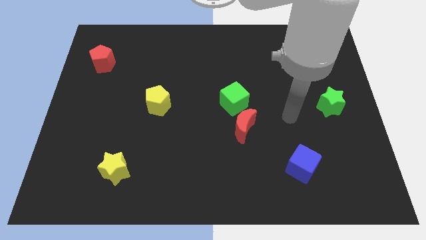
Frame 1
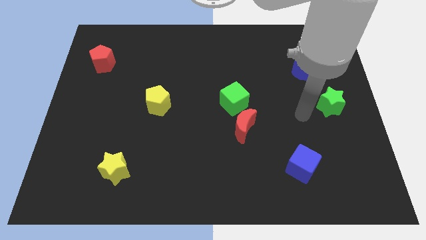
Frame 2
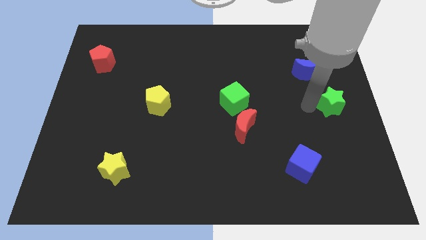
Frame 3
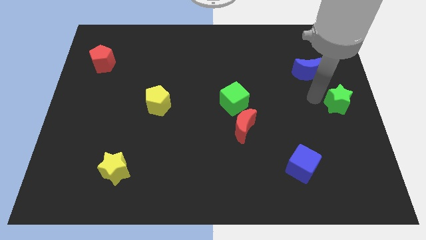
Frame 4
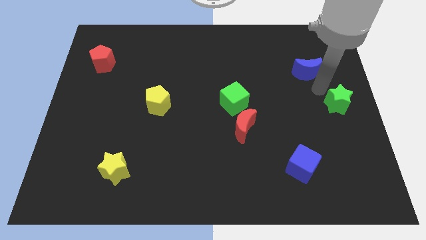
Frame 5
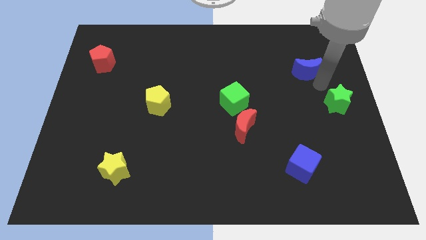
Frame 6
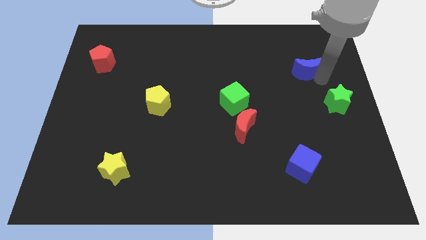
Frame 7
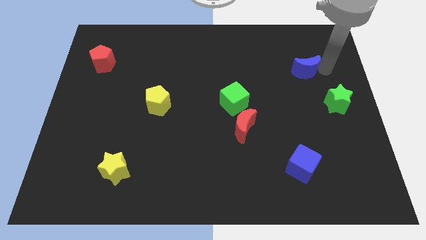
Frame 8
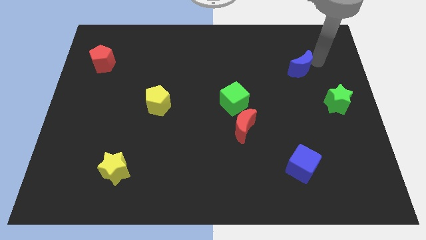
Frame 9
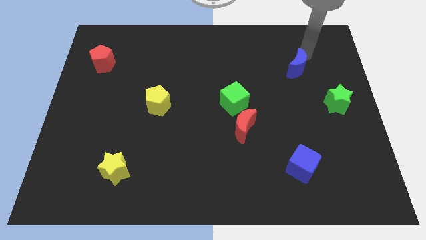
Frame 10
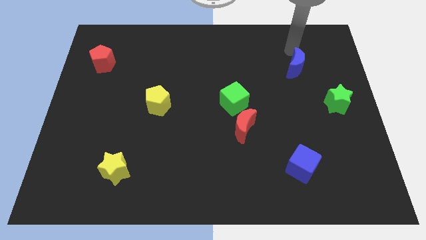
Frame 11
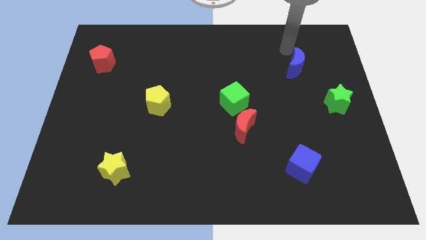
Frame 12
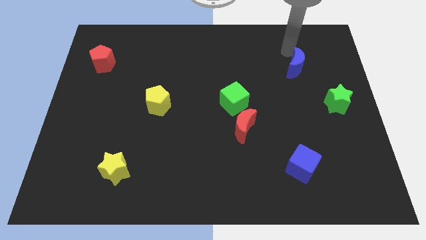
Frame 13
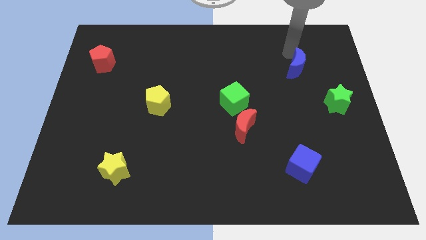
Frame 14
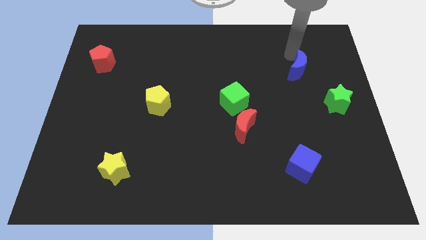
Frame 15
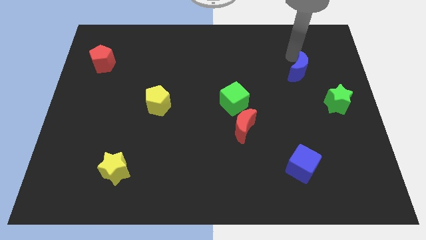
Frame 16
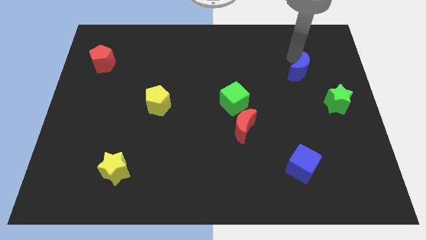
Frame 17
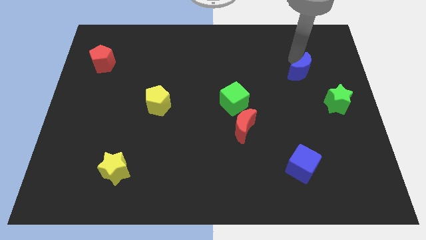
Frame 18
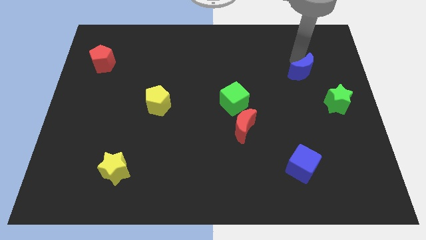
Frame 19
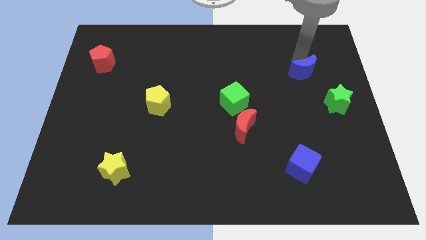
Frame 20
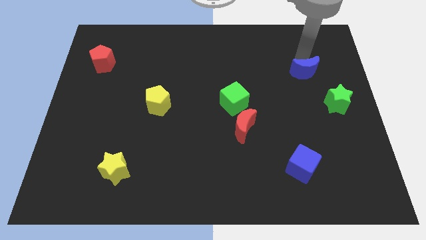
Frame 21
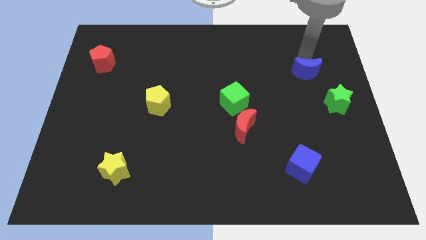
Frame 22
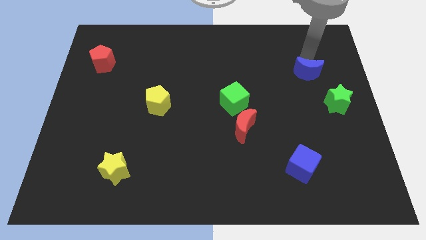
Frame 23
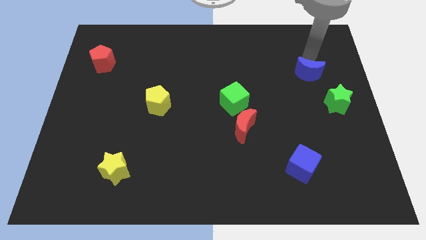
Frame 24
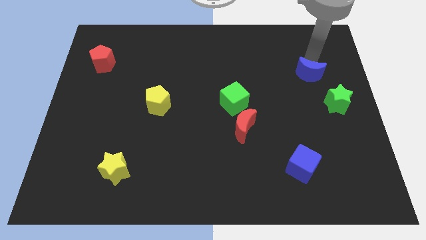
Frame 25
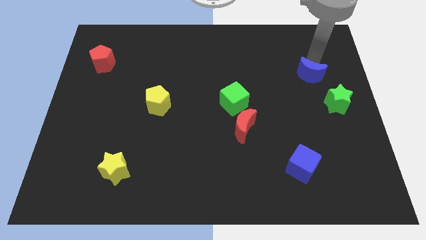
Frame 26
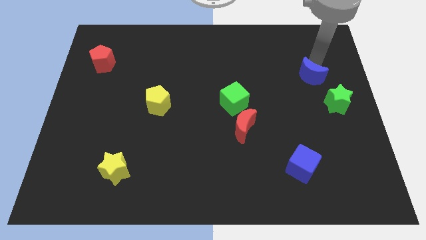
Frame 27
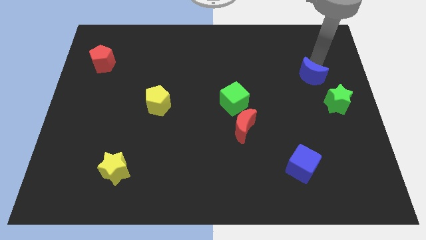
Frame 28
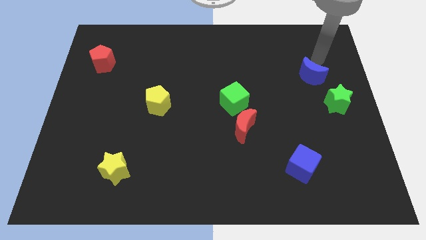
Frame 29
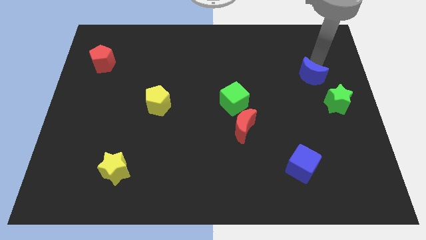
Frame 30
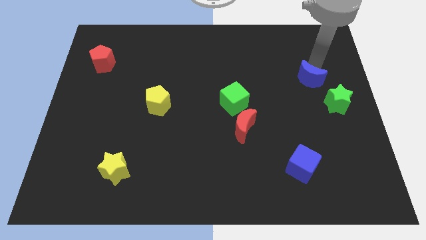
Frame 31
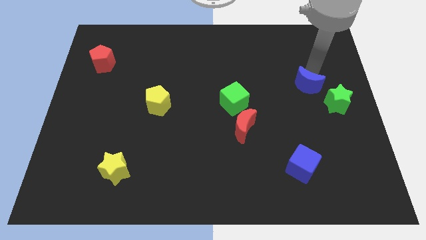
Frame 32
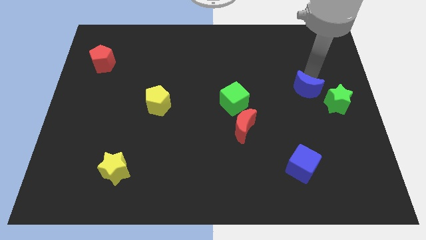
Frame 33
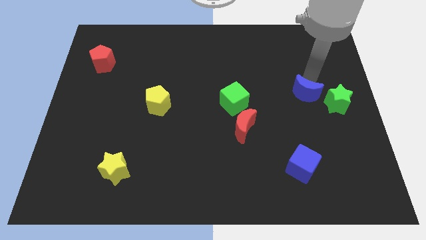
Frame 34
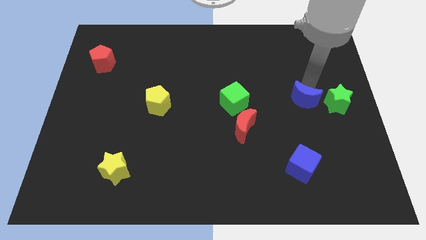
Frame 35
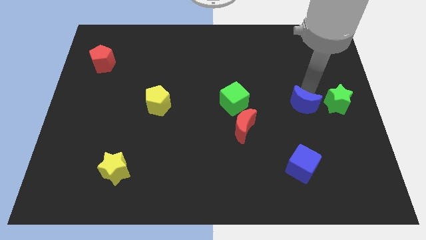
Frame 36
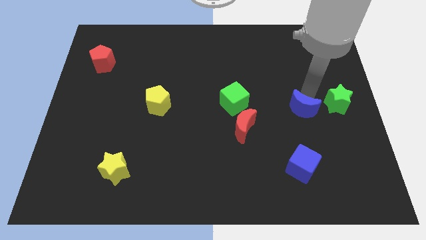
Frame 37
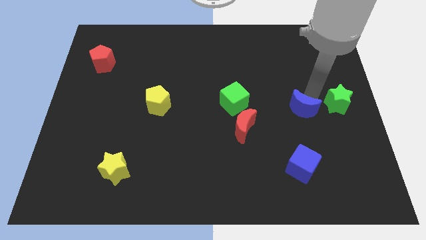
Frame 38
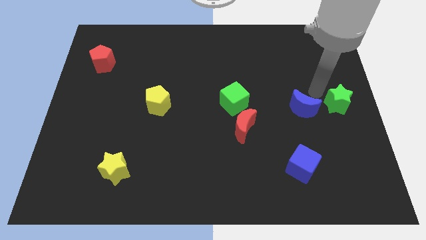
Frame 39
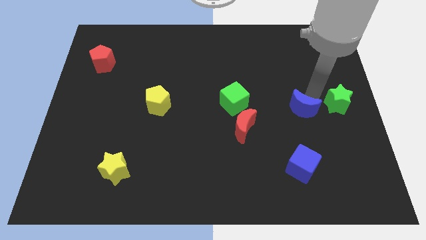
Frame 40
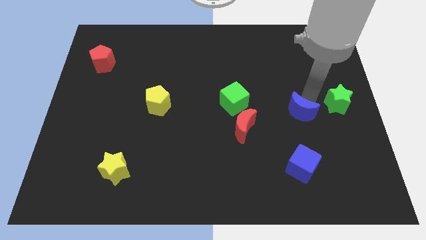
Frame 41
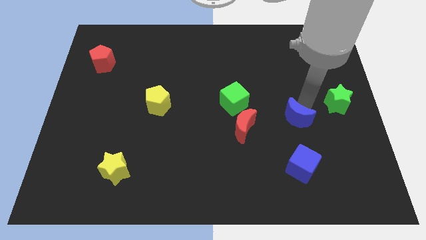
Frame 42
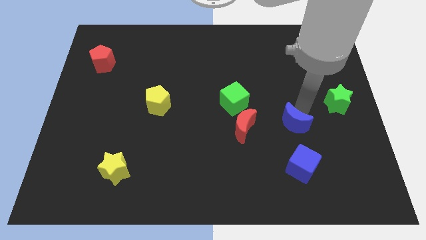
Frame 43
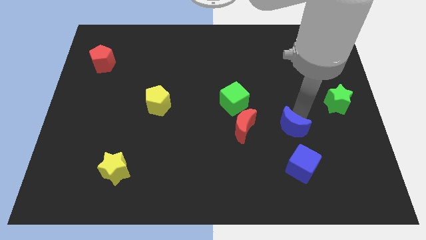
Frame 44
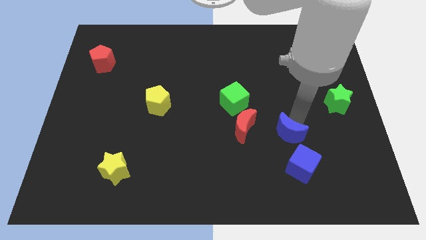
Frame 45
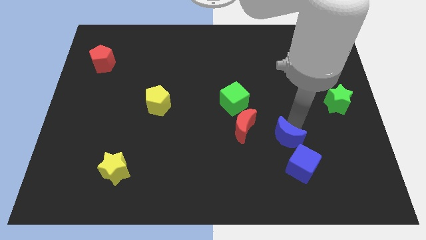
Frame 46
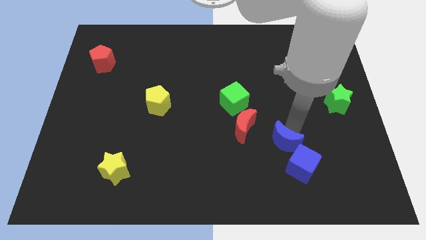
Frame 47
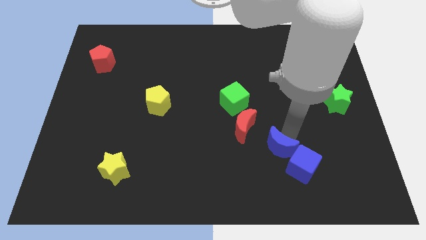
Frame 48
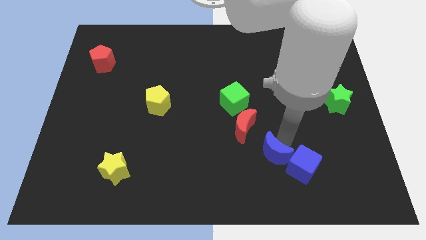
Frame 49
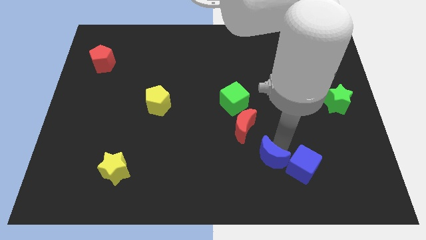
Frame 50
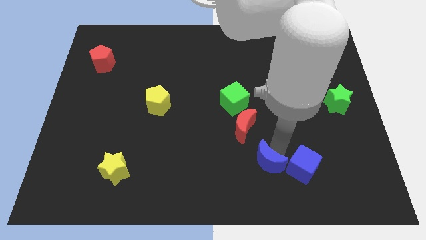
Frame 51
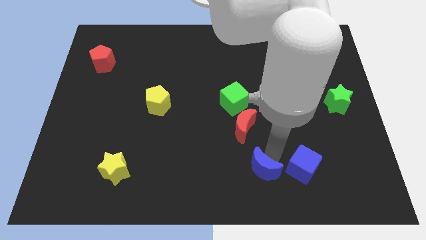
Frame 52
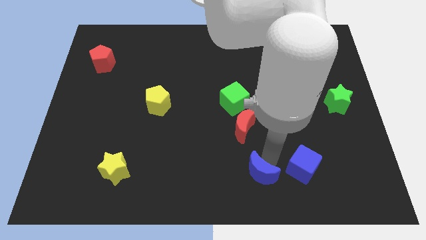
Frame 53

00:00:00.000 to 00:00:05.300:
move the blue moon to the bottom

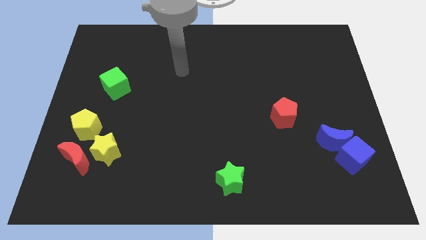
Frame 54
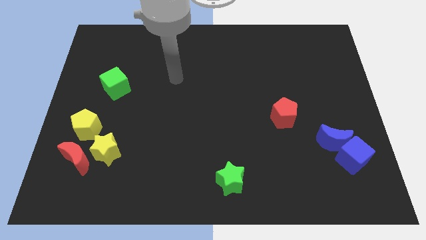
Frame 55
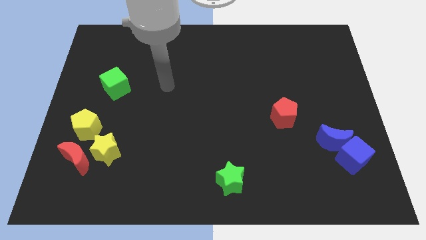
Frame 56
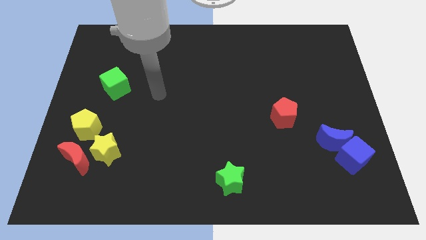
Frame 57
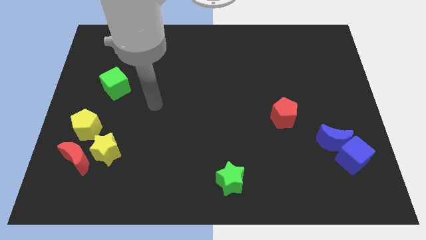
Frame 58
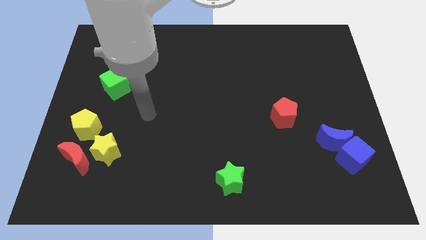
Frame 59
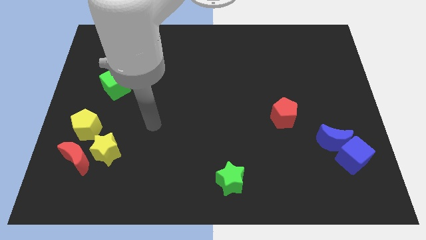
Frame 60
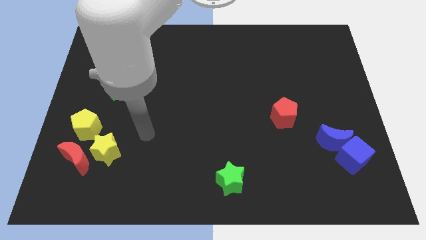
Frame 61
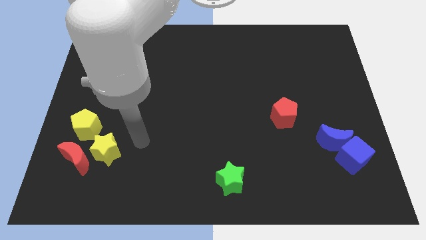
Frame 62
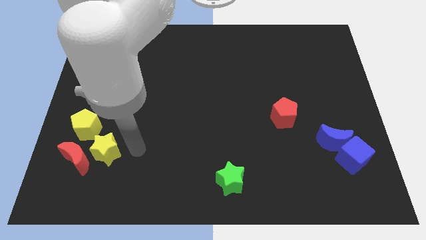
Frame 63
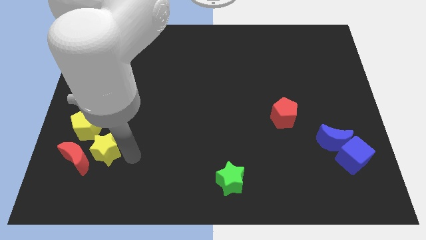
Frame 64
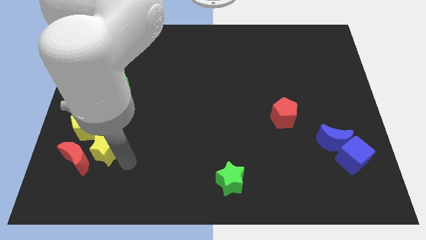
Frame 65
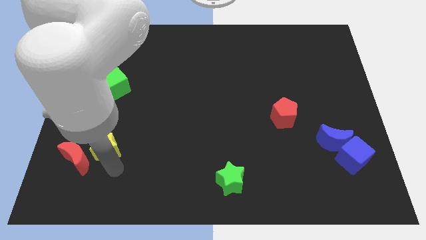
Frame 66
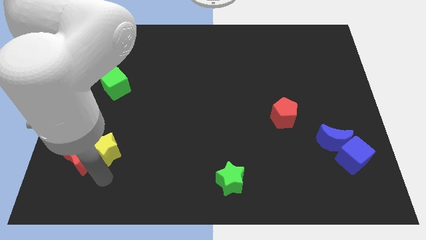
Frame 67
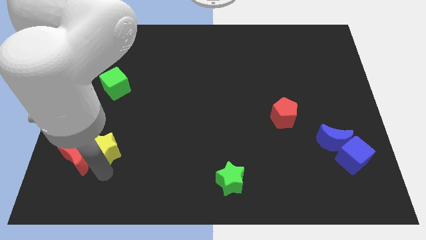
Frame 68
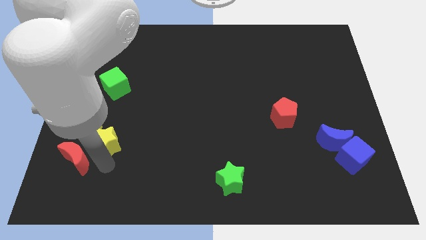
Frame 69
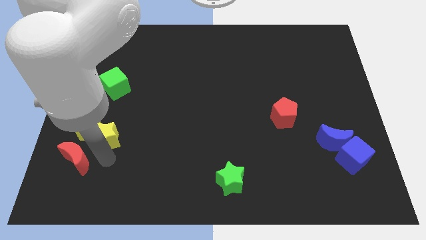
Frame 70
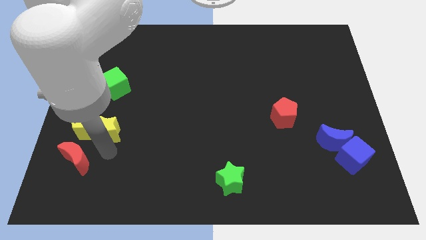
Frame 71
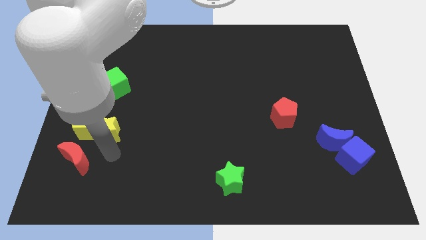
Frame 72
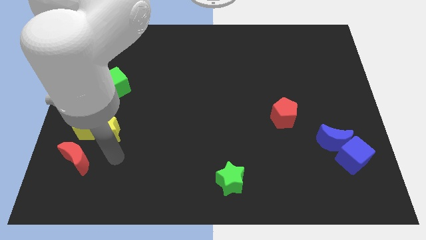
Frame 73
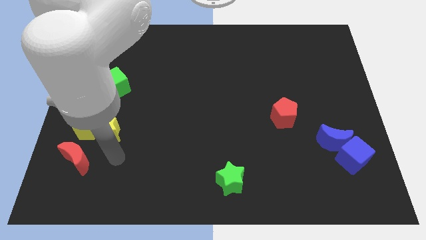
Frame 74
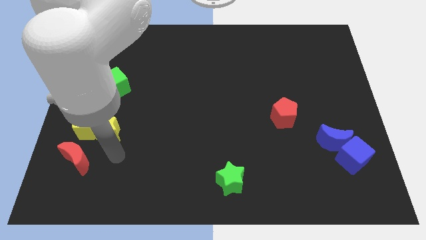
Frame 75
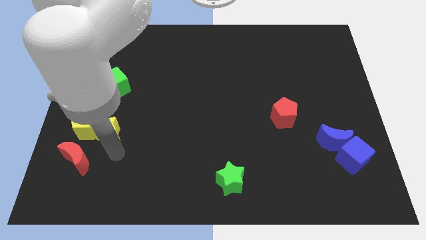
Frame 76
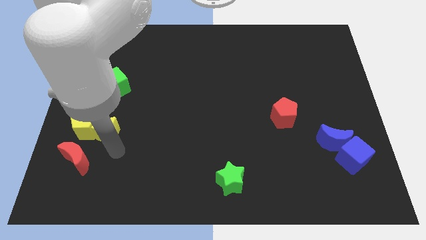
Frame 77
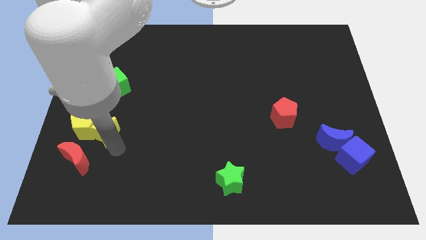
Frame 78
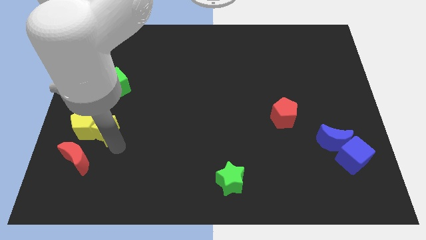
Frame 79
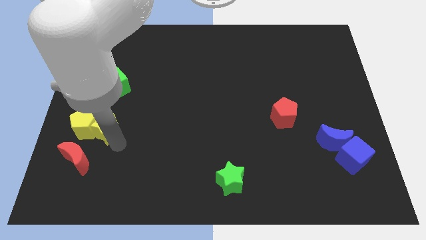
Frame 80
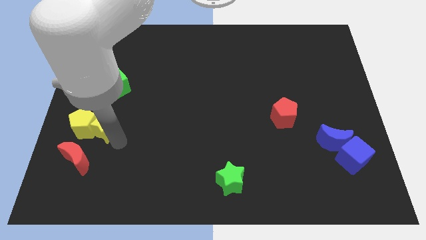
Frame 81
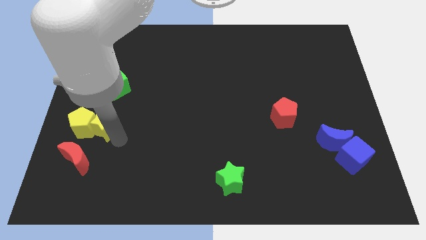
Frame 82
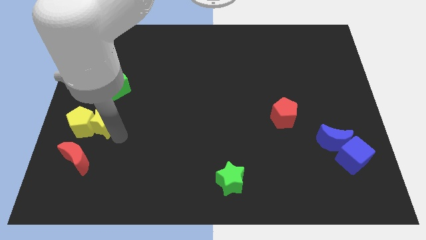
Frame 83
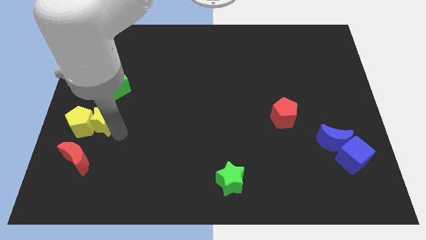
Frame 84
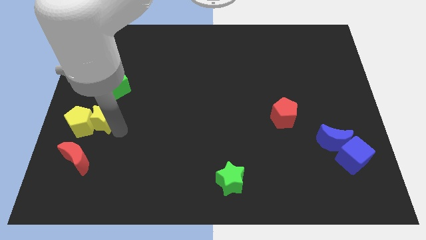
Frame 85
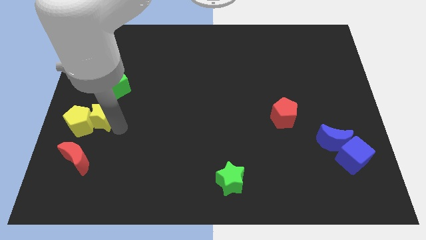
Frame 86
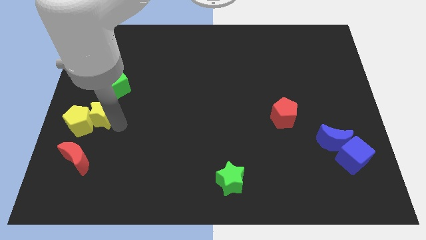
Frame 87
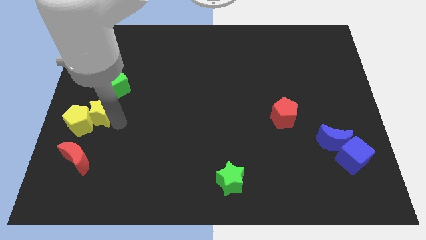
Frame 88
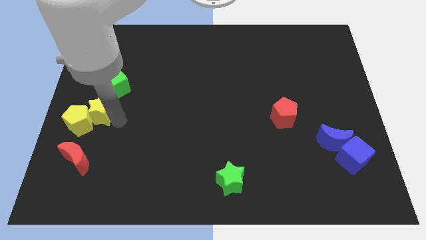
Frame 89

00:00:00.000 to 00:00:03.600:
slide the yellow star to the left side
